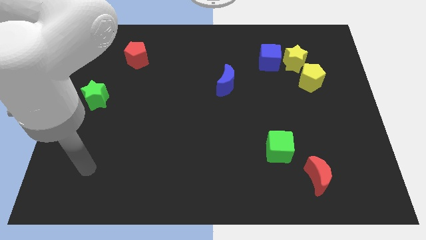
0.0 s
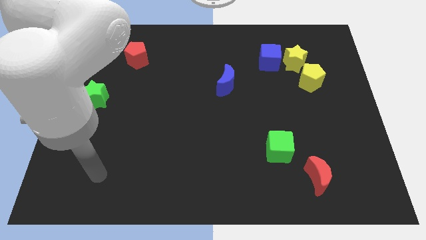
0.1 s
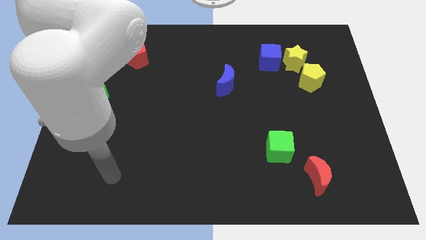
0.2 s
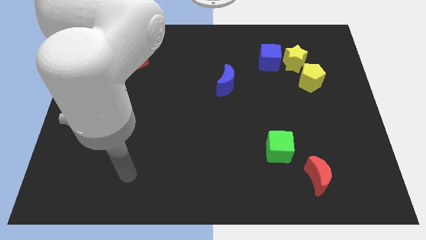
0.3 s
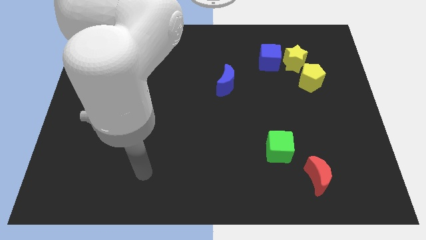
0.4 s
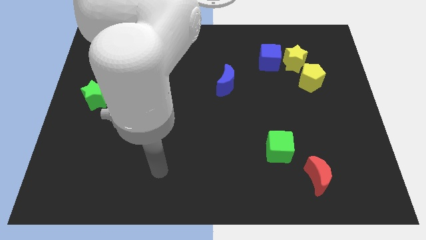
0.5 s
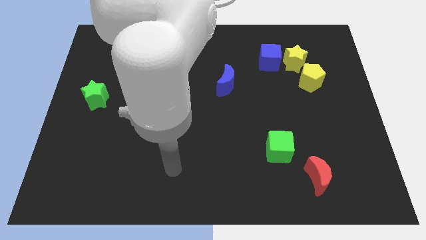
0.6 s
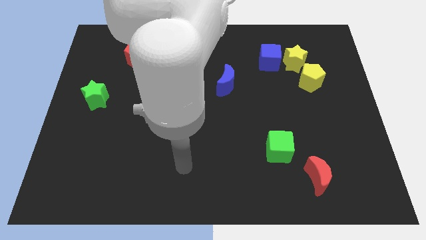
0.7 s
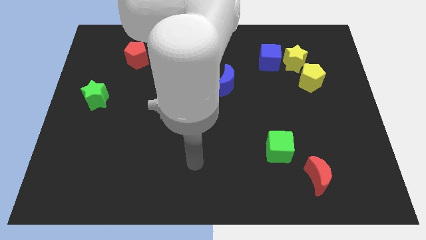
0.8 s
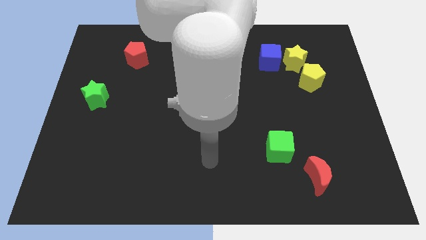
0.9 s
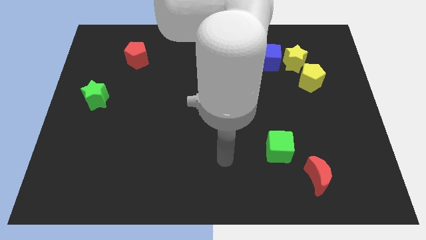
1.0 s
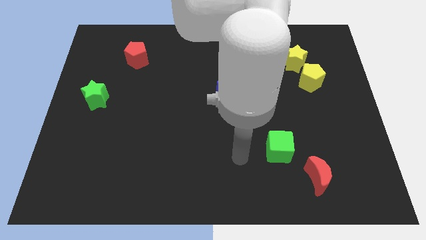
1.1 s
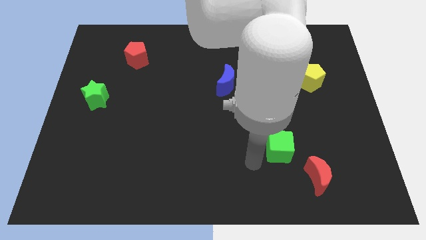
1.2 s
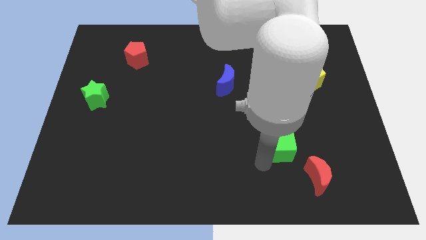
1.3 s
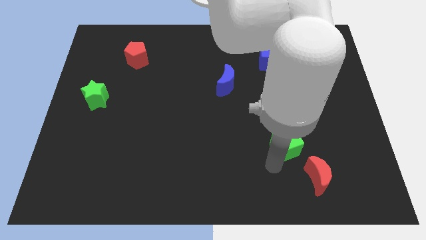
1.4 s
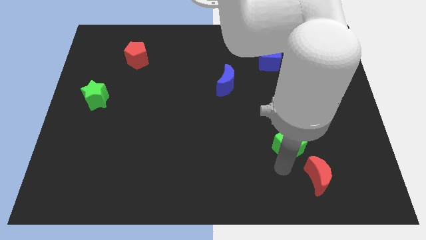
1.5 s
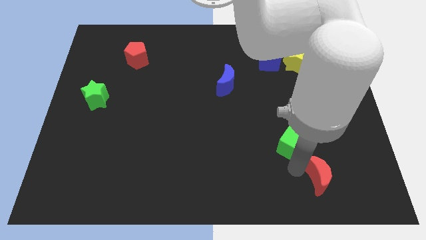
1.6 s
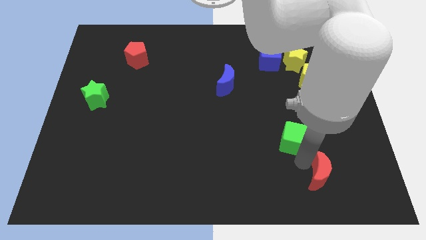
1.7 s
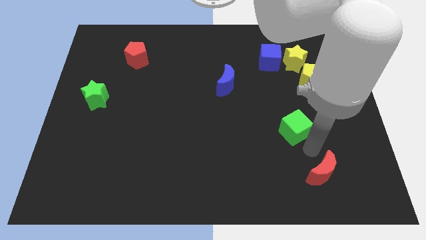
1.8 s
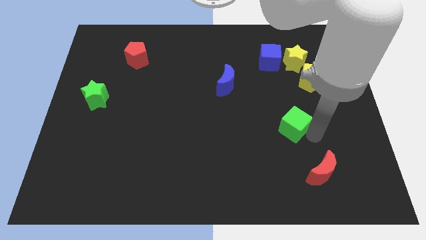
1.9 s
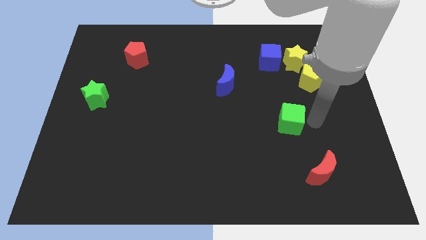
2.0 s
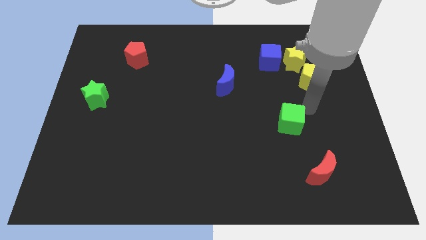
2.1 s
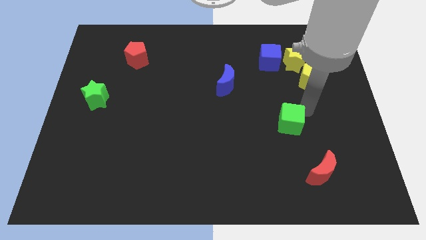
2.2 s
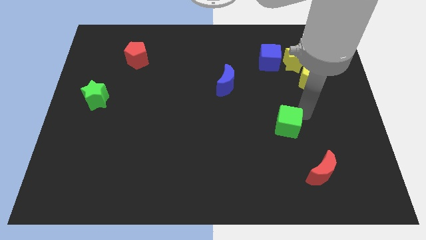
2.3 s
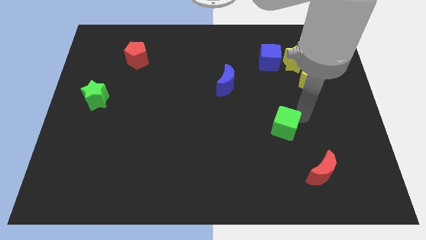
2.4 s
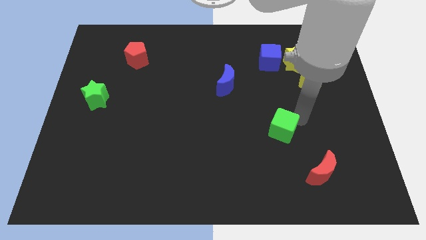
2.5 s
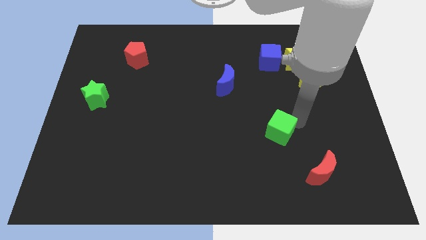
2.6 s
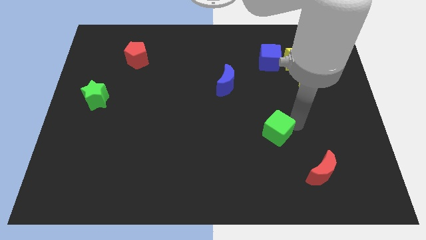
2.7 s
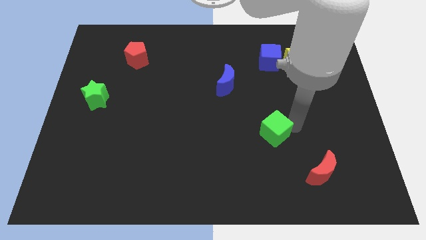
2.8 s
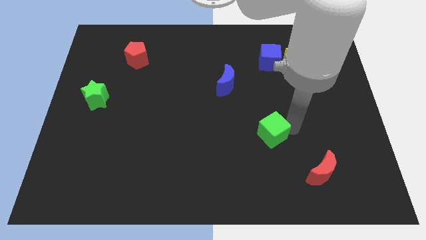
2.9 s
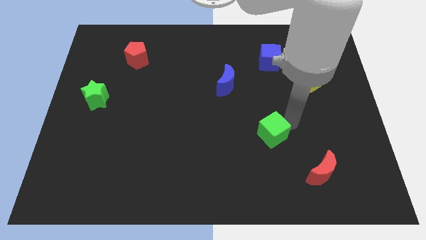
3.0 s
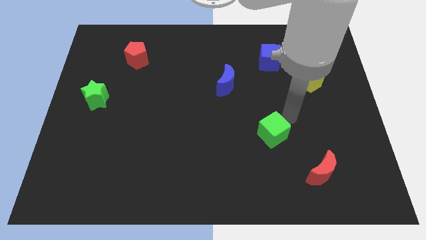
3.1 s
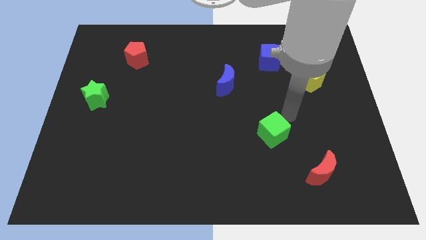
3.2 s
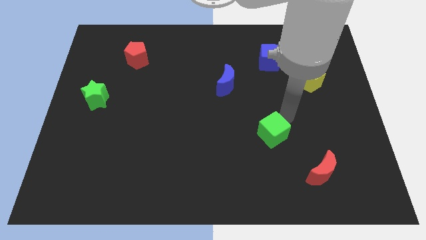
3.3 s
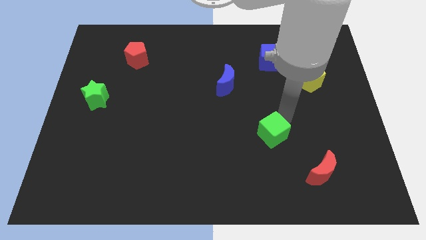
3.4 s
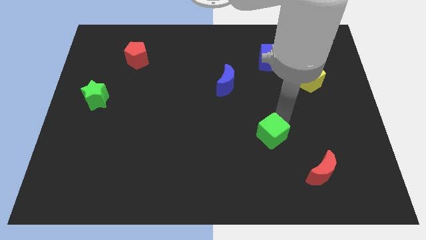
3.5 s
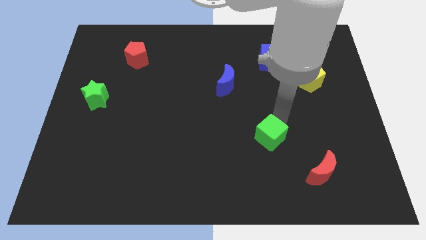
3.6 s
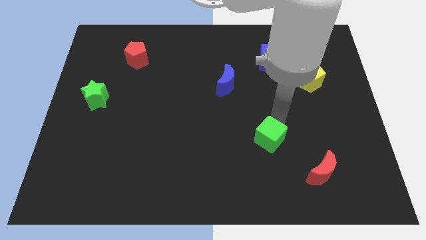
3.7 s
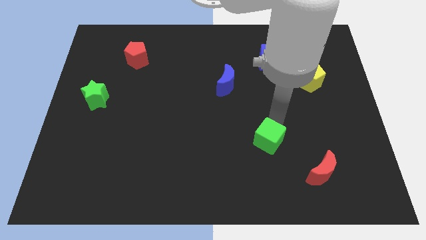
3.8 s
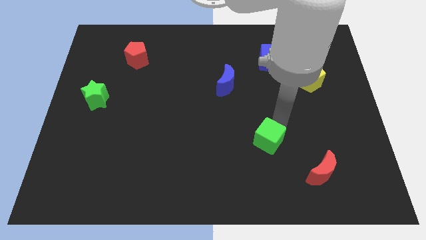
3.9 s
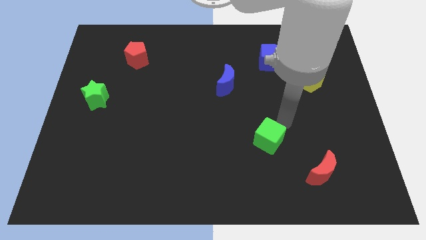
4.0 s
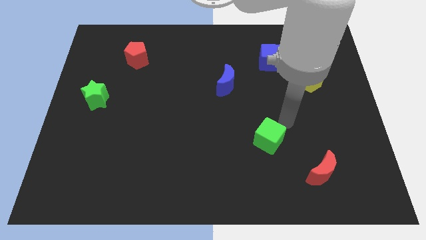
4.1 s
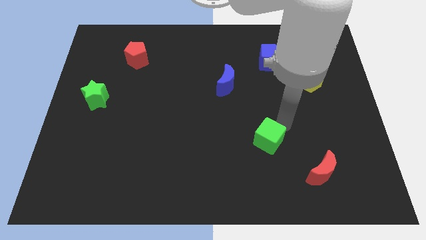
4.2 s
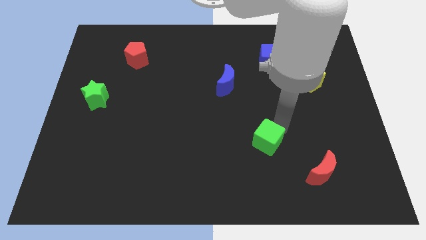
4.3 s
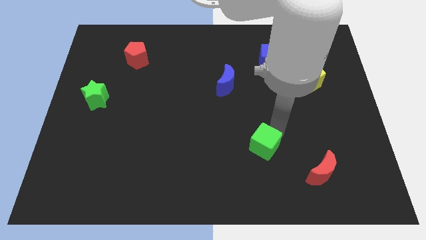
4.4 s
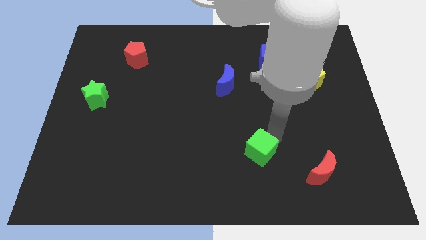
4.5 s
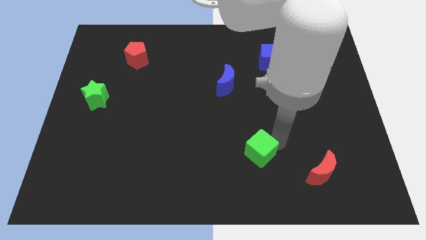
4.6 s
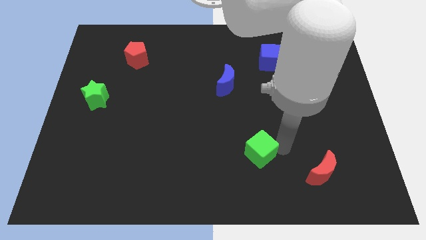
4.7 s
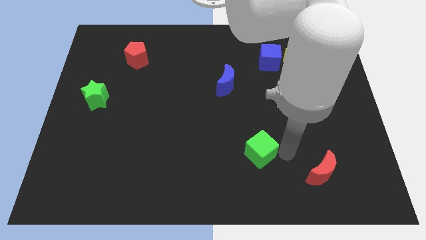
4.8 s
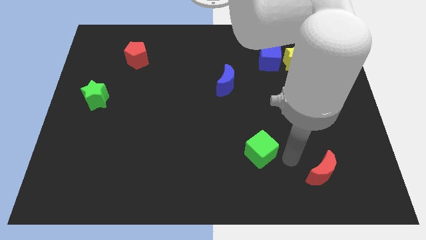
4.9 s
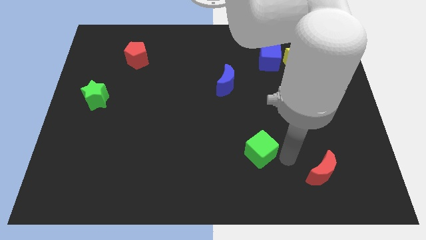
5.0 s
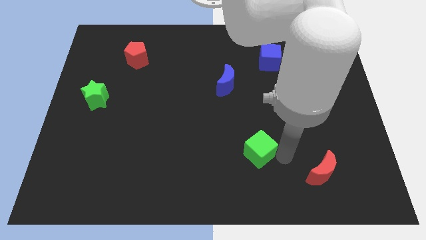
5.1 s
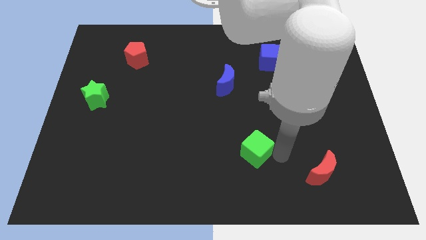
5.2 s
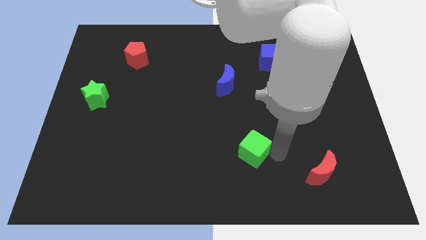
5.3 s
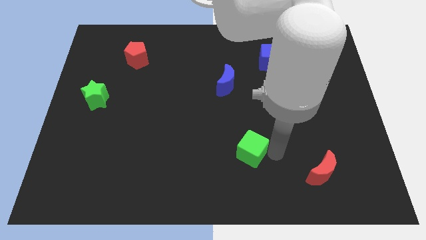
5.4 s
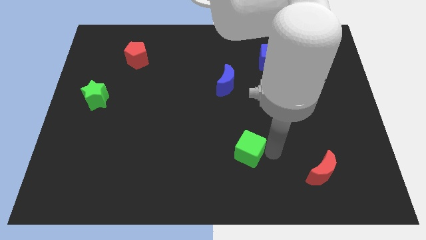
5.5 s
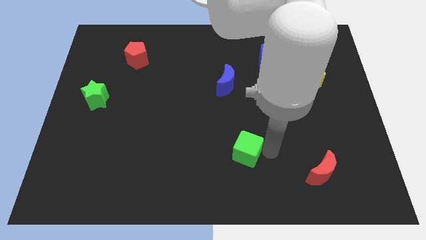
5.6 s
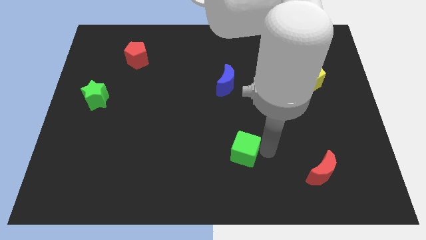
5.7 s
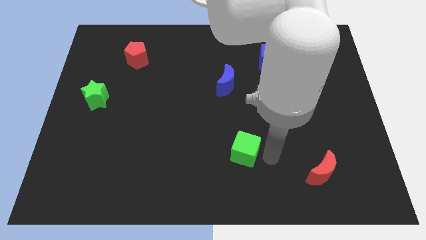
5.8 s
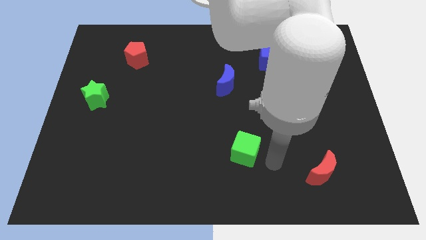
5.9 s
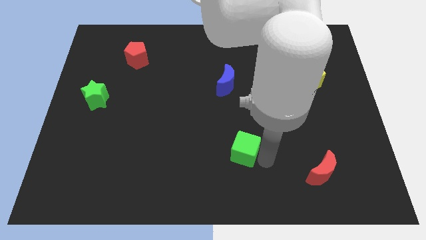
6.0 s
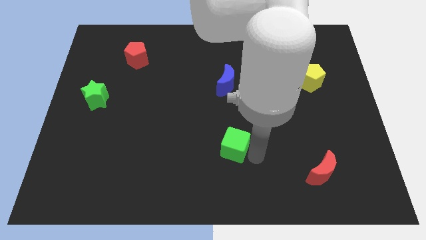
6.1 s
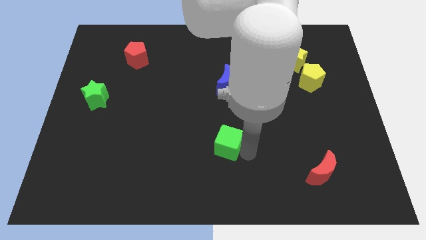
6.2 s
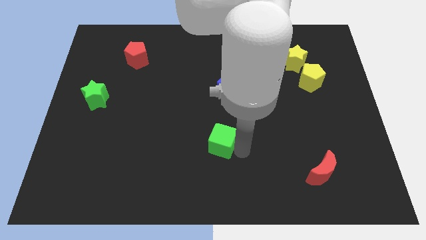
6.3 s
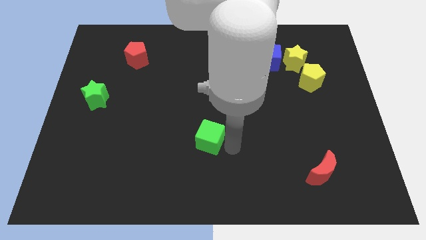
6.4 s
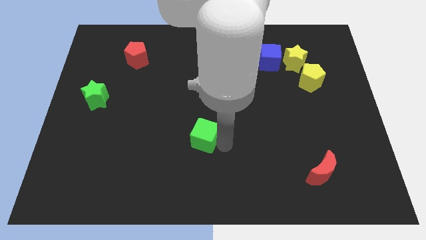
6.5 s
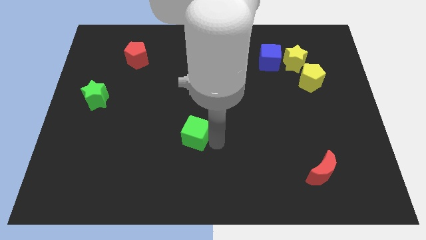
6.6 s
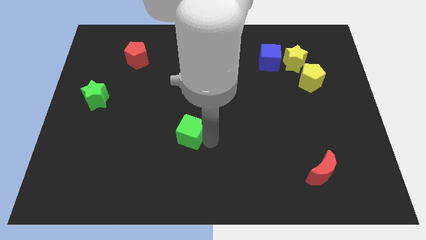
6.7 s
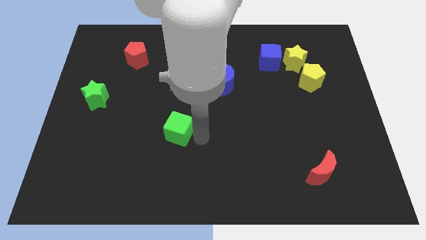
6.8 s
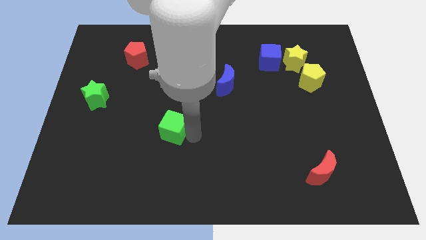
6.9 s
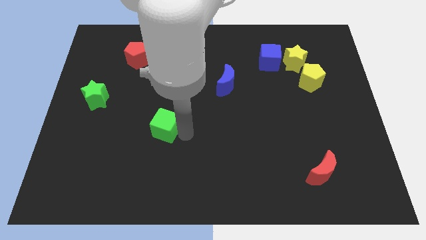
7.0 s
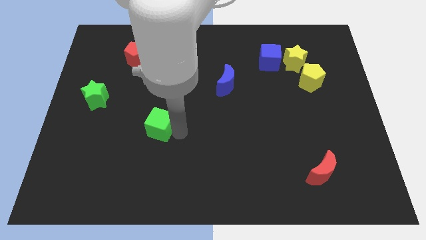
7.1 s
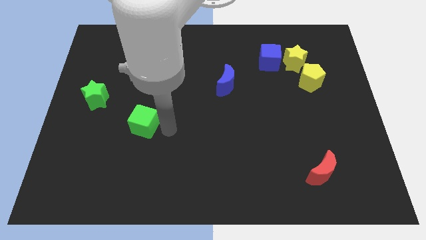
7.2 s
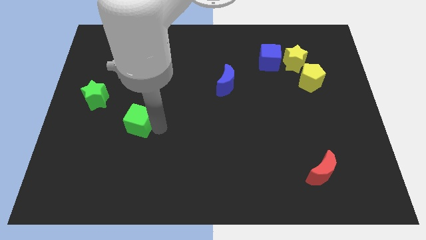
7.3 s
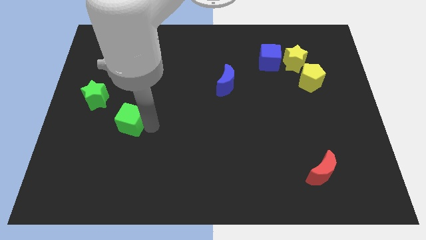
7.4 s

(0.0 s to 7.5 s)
put the green cube to the bottom right side of the green star

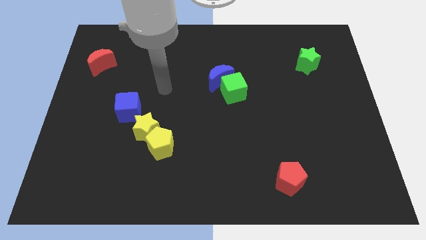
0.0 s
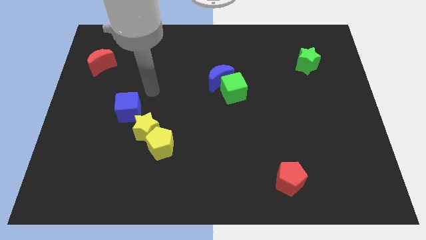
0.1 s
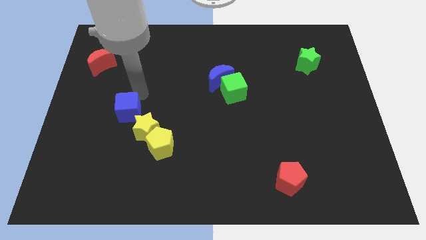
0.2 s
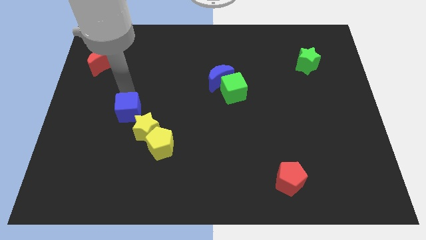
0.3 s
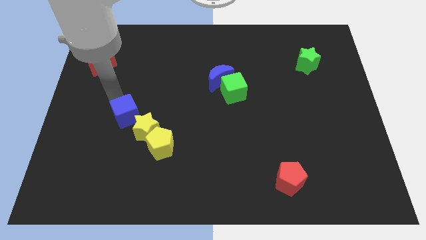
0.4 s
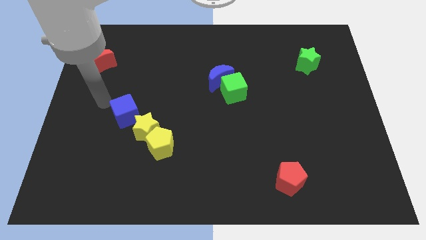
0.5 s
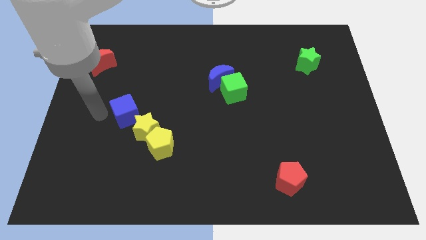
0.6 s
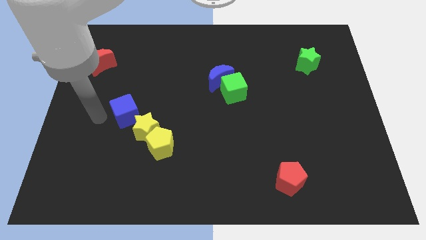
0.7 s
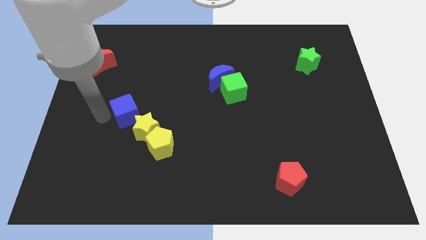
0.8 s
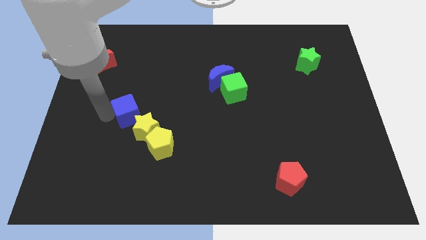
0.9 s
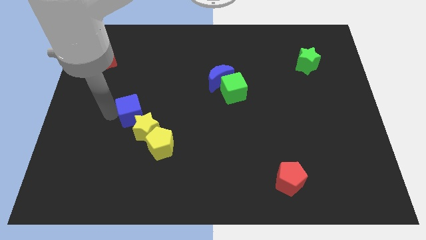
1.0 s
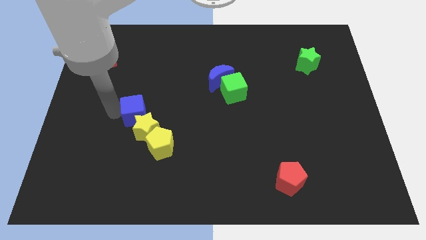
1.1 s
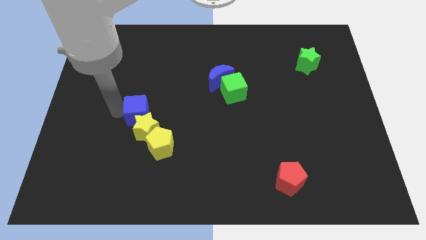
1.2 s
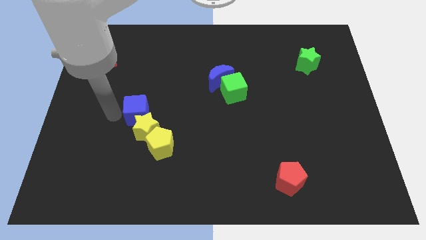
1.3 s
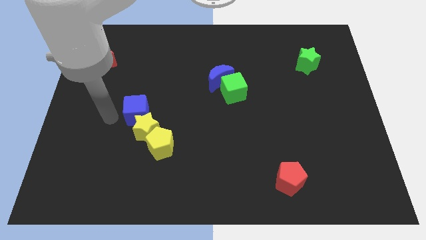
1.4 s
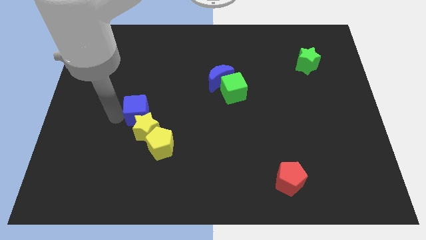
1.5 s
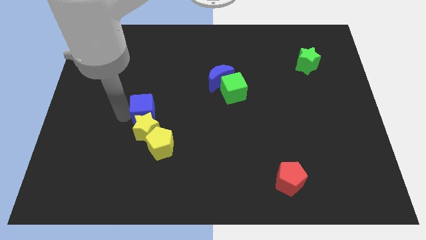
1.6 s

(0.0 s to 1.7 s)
put the blue cube to the top of the yellow pentagon
